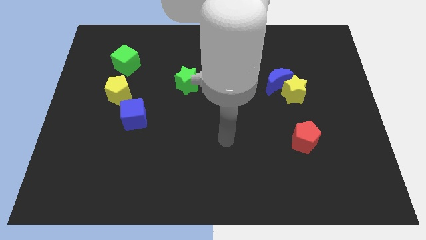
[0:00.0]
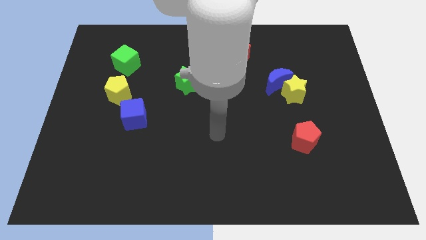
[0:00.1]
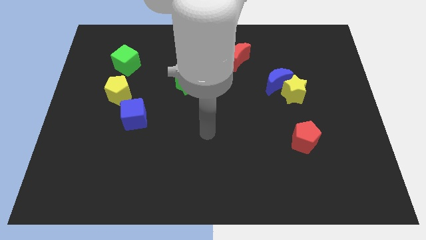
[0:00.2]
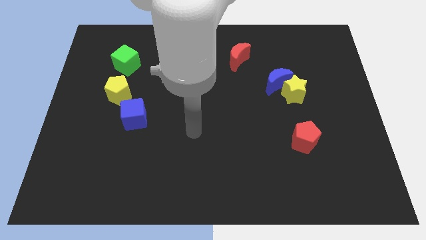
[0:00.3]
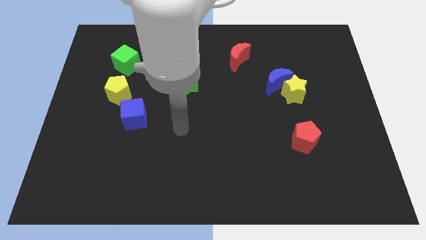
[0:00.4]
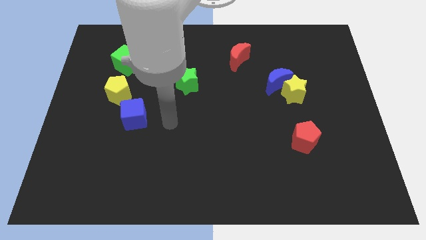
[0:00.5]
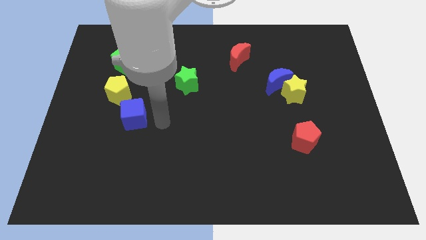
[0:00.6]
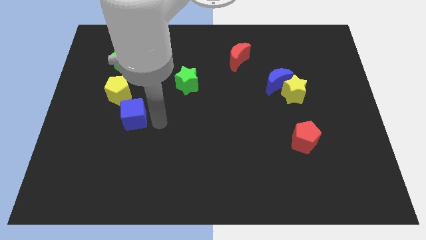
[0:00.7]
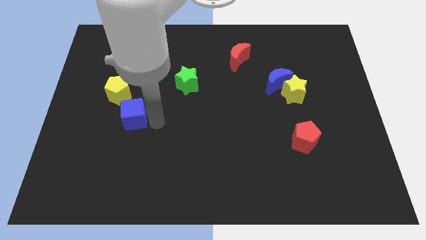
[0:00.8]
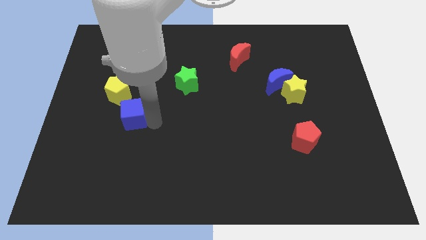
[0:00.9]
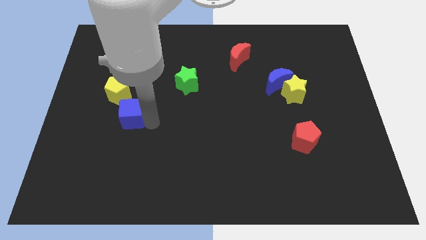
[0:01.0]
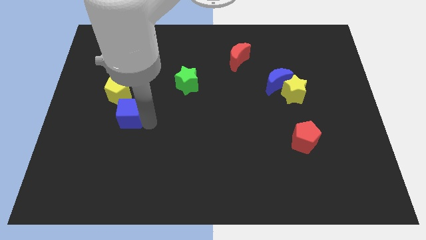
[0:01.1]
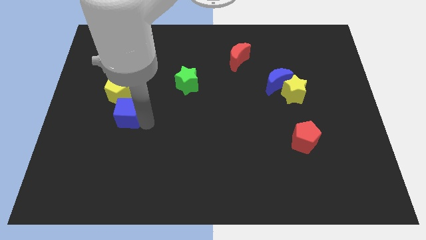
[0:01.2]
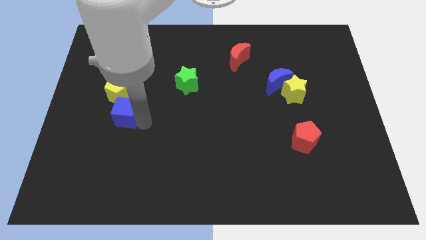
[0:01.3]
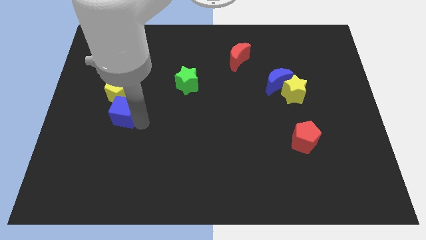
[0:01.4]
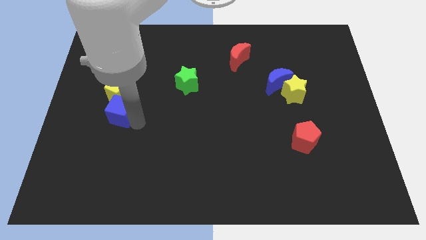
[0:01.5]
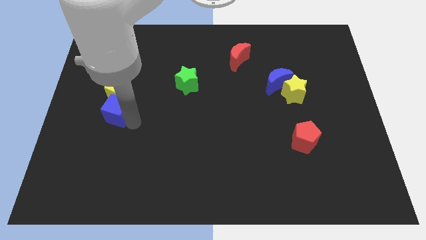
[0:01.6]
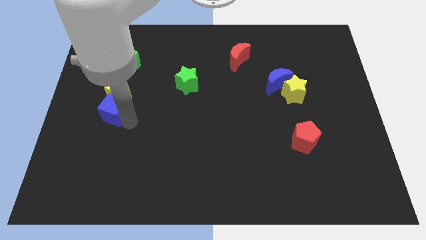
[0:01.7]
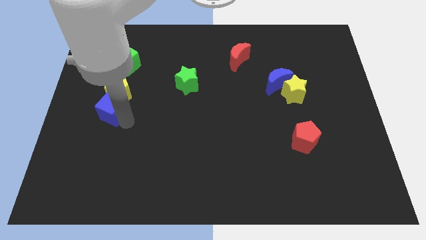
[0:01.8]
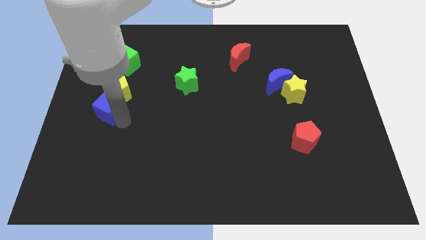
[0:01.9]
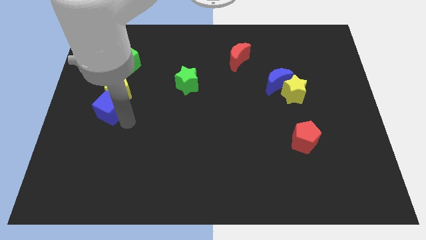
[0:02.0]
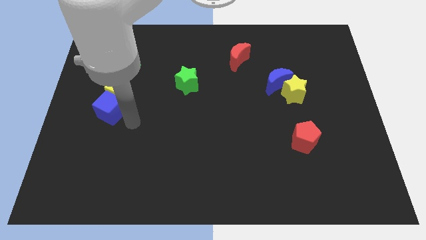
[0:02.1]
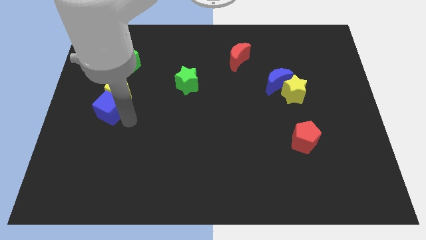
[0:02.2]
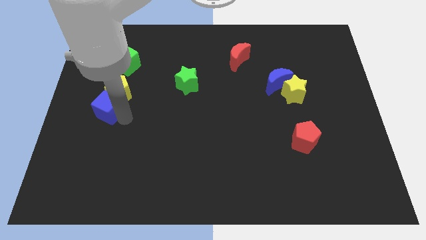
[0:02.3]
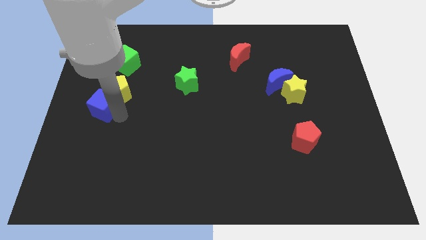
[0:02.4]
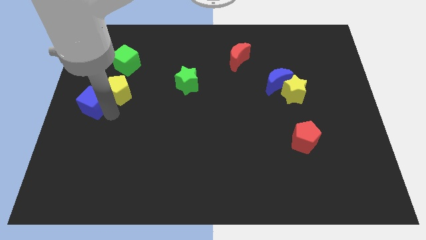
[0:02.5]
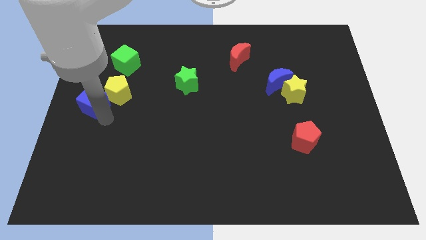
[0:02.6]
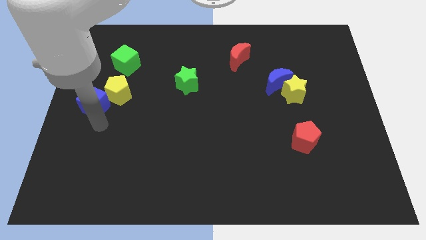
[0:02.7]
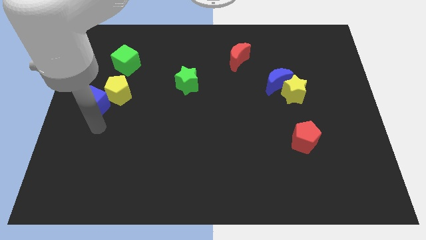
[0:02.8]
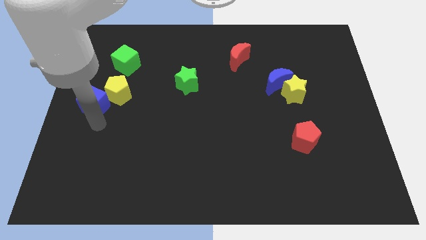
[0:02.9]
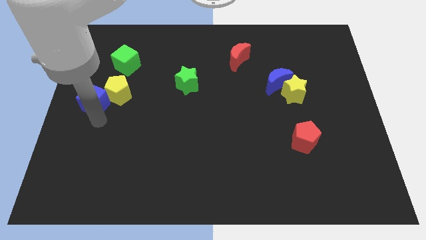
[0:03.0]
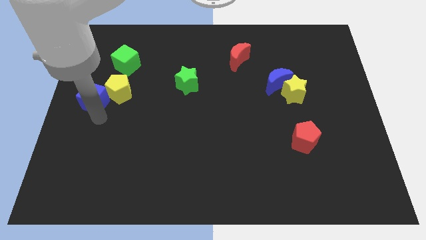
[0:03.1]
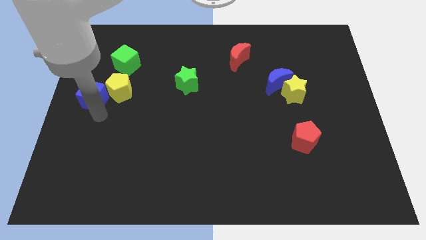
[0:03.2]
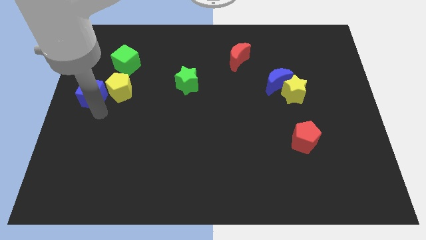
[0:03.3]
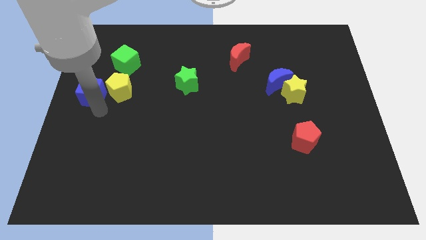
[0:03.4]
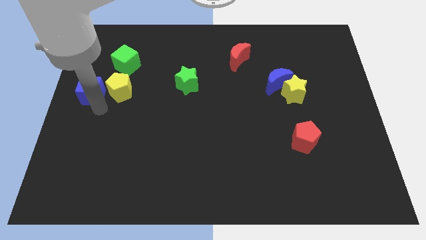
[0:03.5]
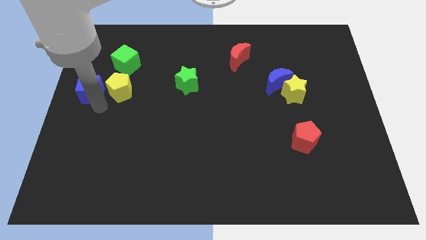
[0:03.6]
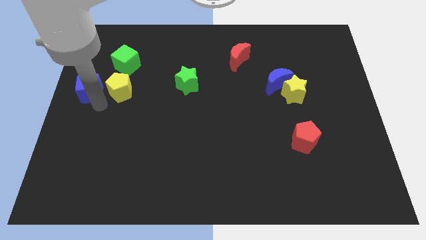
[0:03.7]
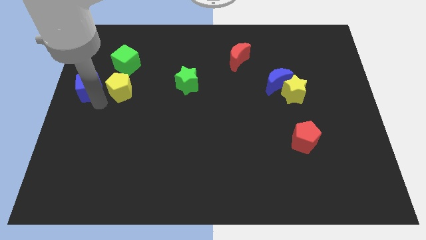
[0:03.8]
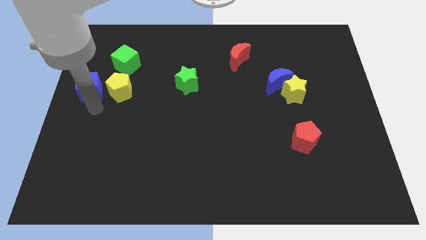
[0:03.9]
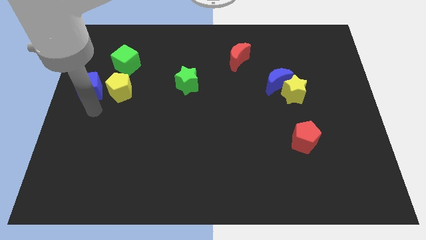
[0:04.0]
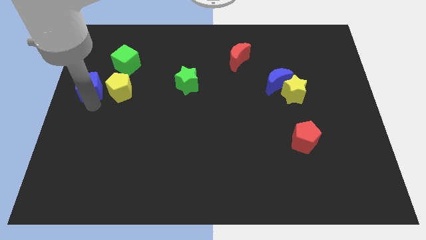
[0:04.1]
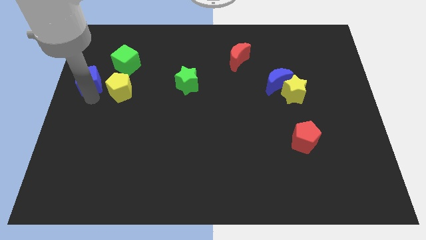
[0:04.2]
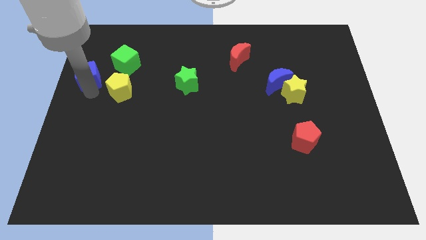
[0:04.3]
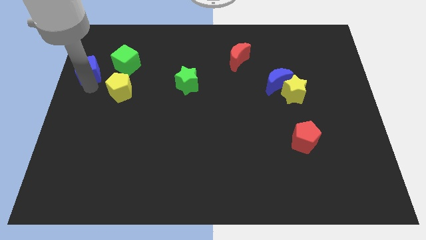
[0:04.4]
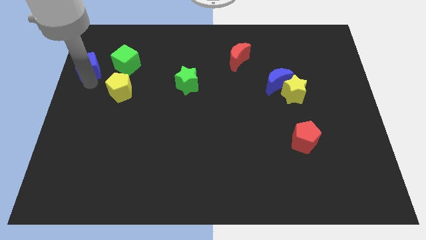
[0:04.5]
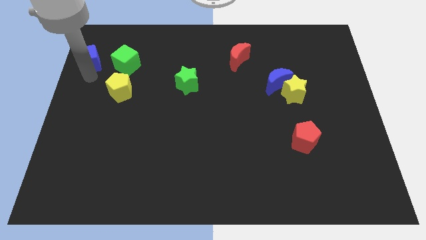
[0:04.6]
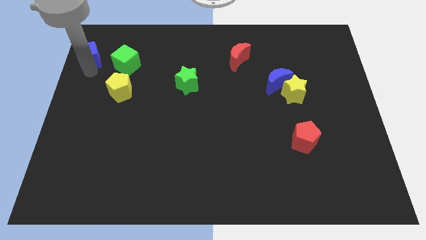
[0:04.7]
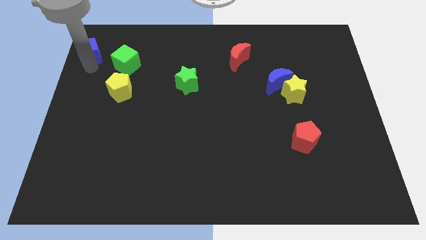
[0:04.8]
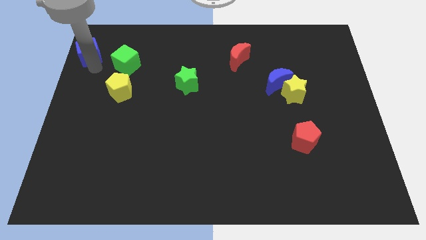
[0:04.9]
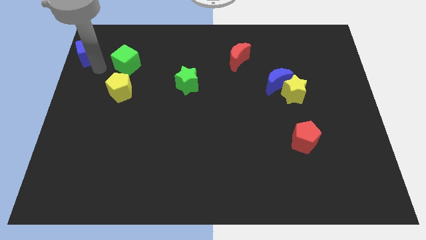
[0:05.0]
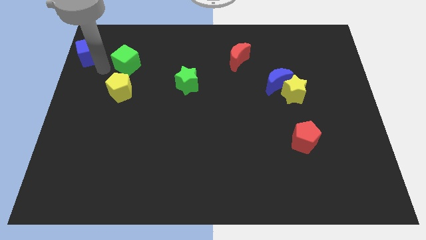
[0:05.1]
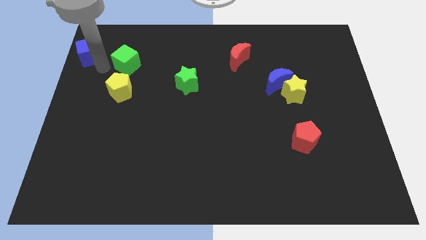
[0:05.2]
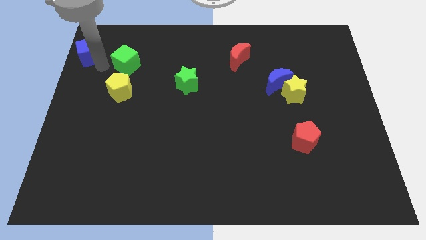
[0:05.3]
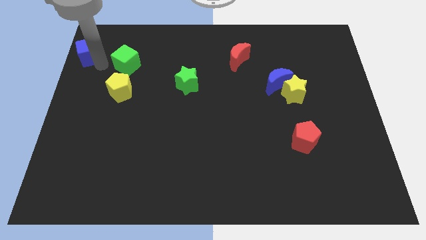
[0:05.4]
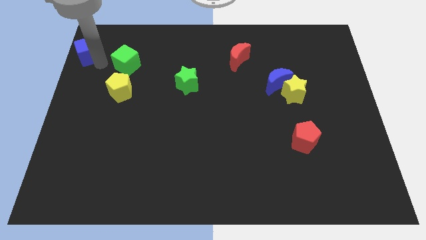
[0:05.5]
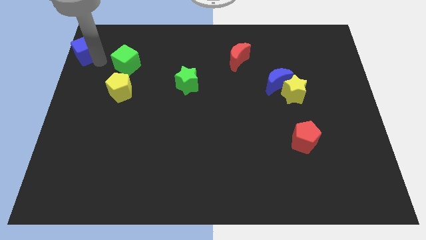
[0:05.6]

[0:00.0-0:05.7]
move the blue cube to the top left corner

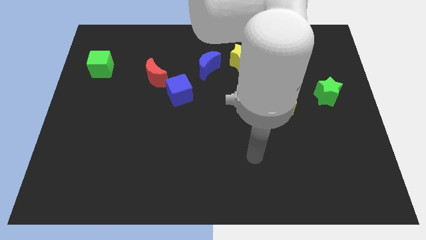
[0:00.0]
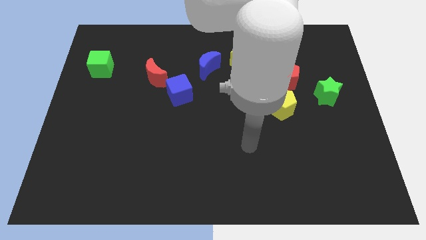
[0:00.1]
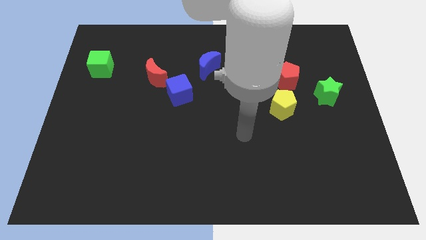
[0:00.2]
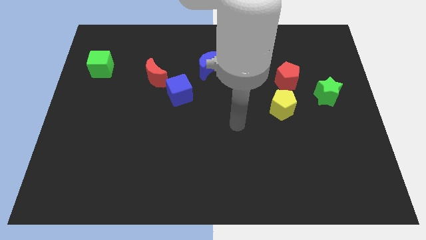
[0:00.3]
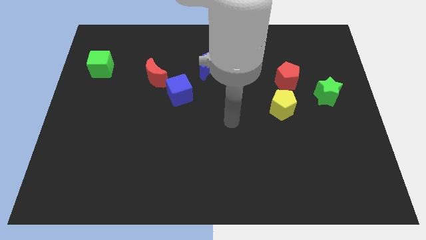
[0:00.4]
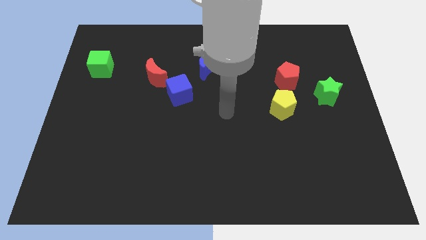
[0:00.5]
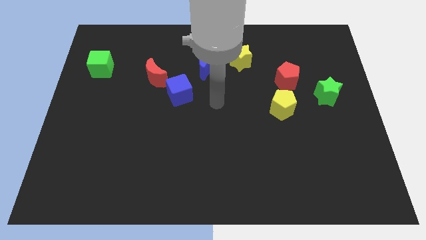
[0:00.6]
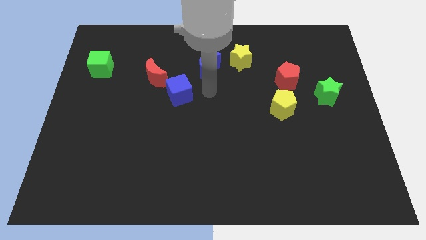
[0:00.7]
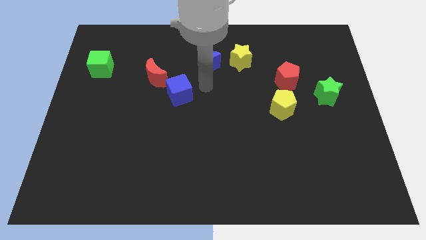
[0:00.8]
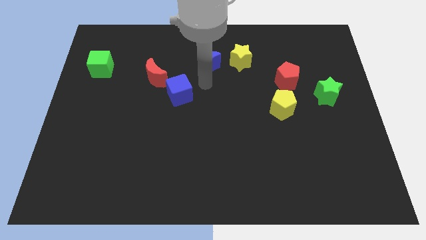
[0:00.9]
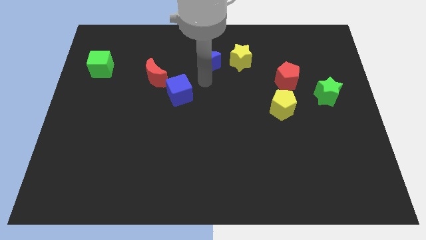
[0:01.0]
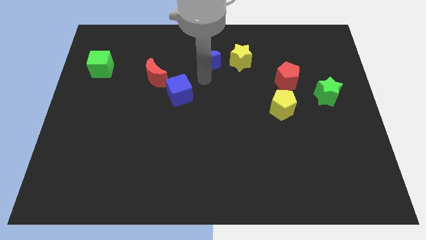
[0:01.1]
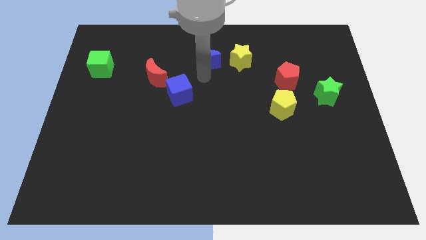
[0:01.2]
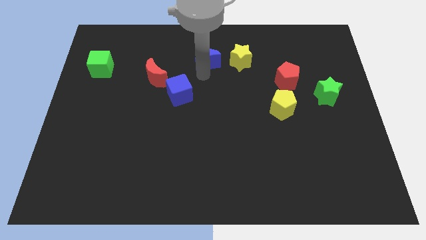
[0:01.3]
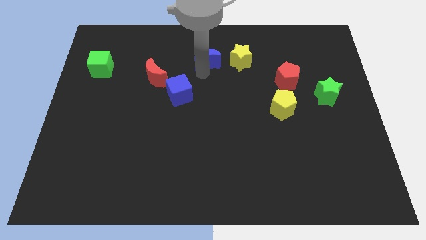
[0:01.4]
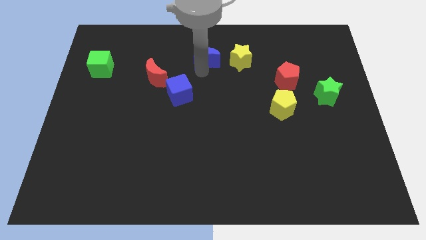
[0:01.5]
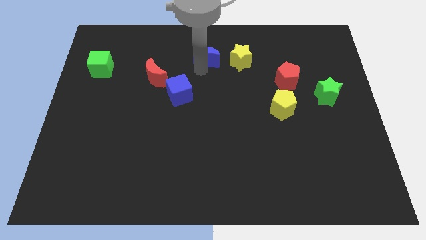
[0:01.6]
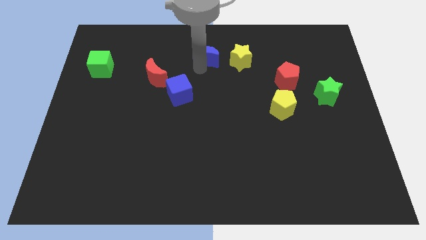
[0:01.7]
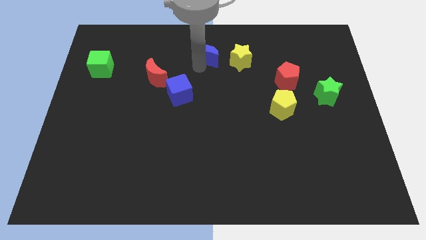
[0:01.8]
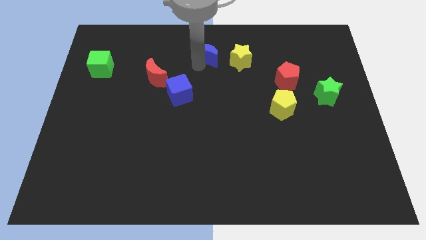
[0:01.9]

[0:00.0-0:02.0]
push the blue moon to the top
